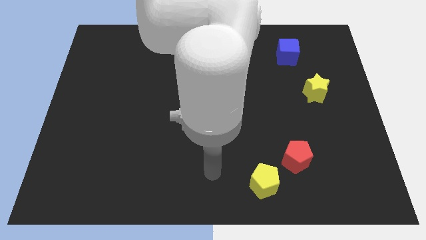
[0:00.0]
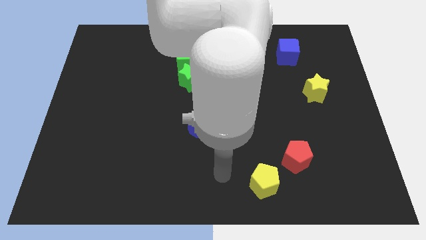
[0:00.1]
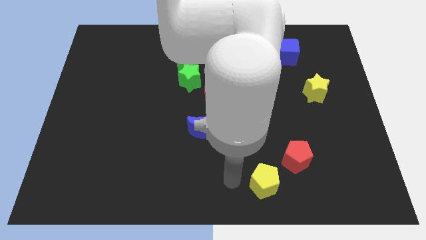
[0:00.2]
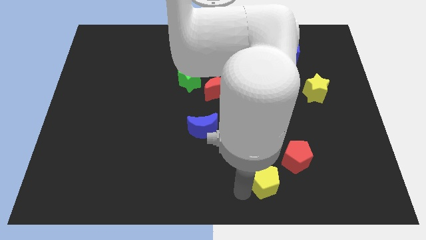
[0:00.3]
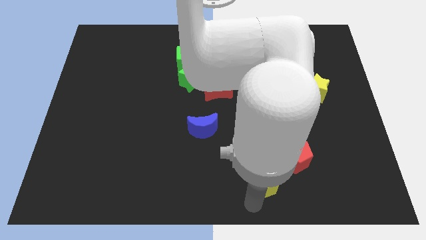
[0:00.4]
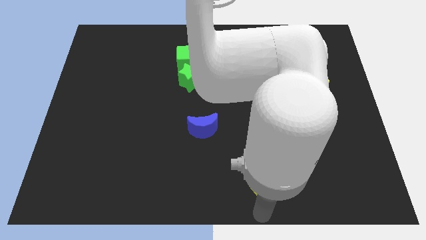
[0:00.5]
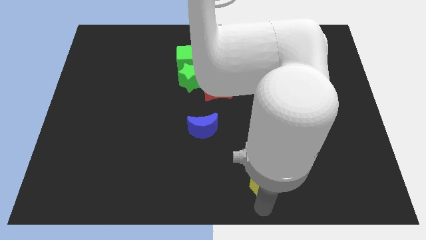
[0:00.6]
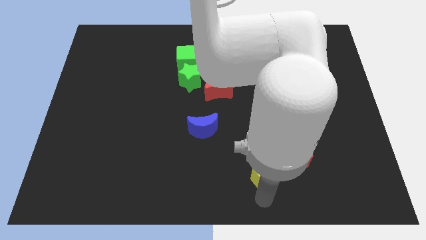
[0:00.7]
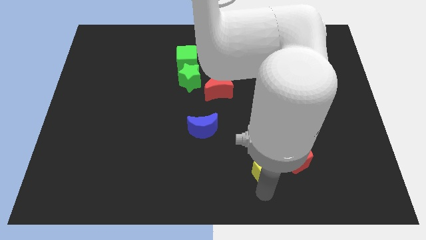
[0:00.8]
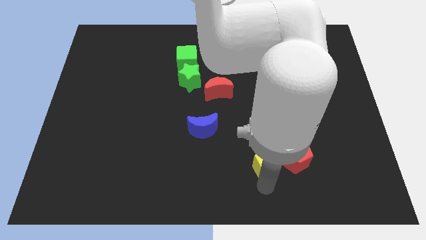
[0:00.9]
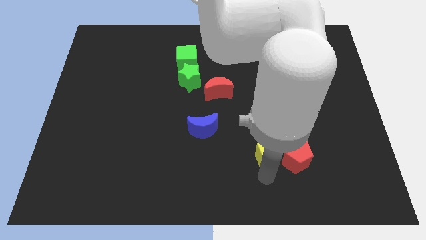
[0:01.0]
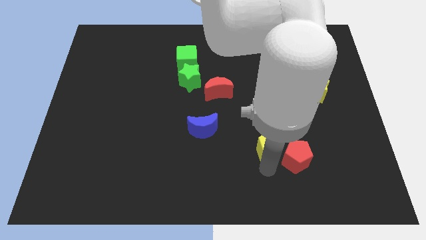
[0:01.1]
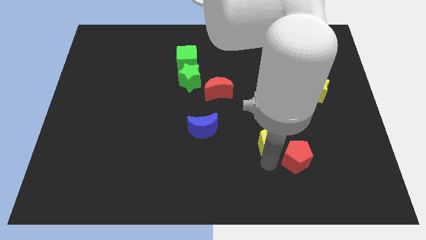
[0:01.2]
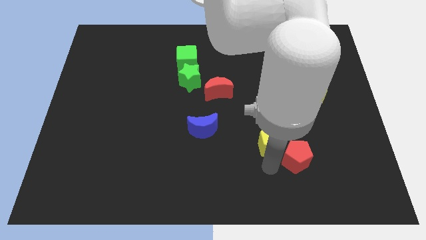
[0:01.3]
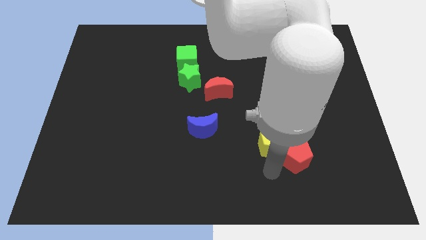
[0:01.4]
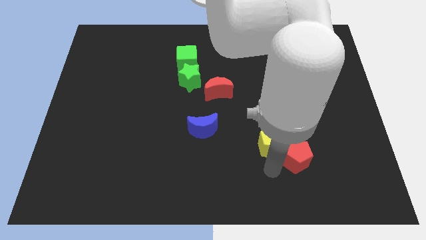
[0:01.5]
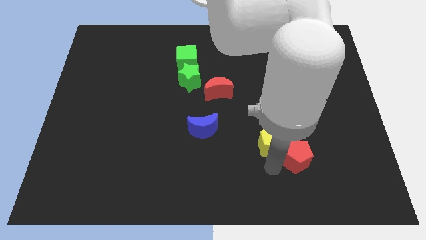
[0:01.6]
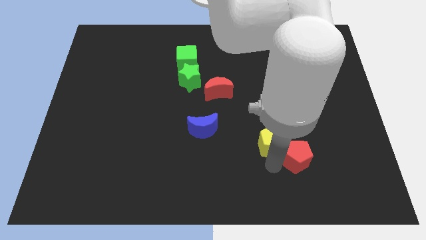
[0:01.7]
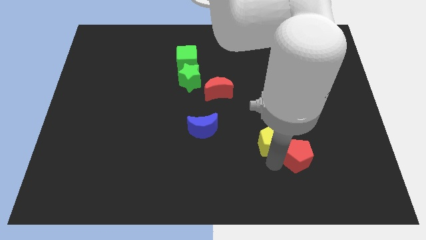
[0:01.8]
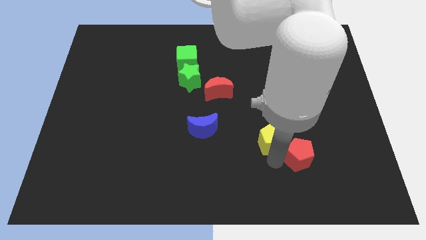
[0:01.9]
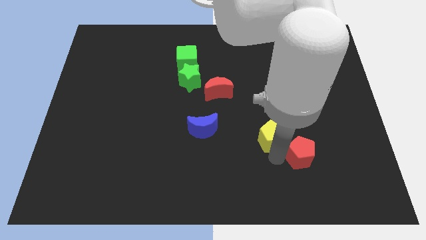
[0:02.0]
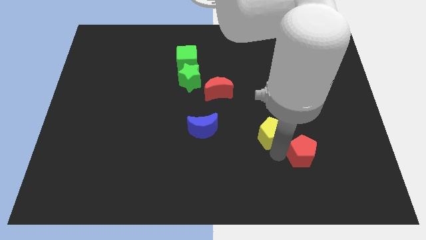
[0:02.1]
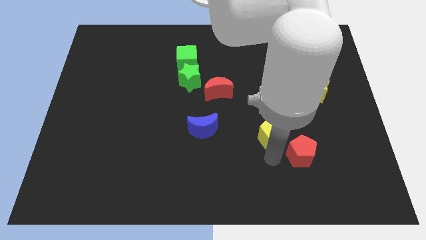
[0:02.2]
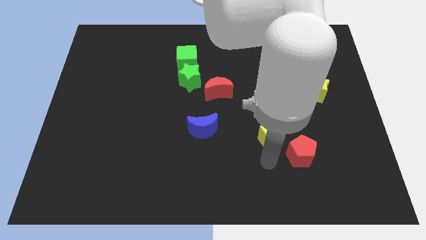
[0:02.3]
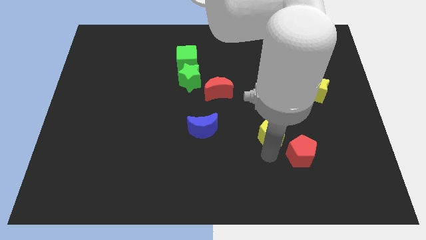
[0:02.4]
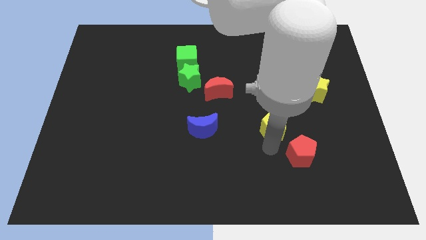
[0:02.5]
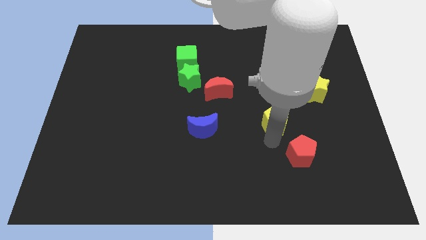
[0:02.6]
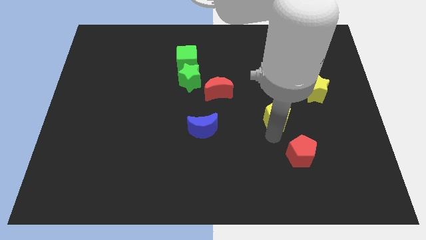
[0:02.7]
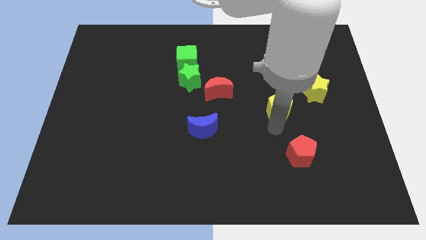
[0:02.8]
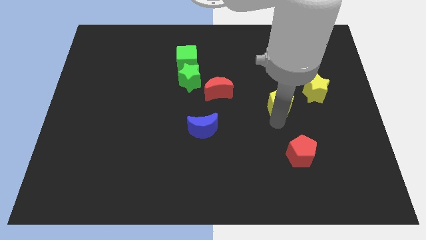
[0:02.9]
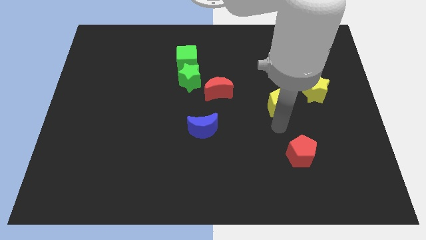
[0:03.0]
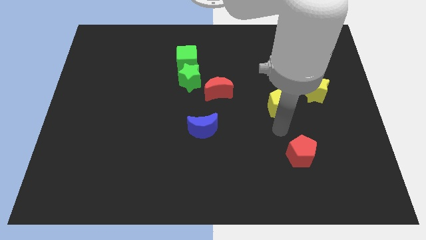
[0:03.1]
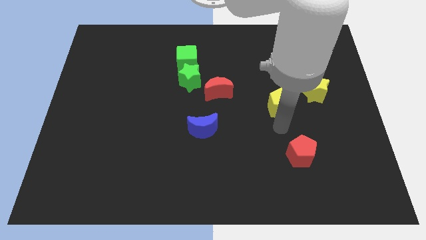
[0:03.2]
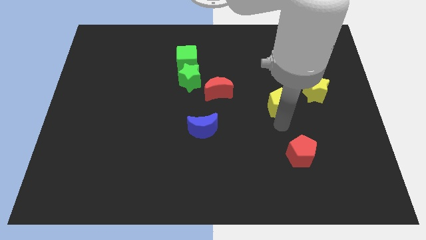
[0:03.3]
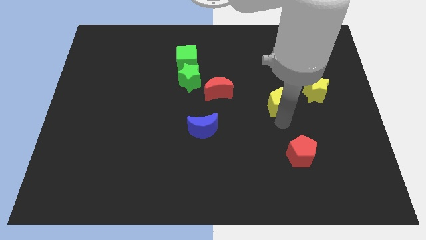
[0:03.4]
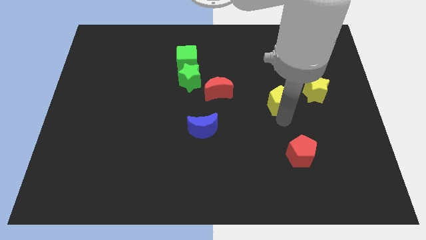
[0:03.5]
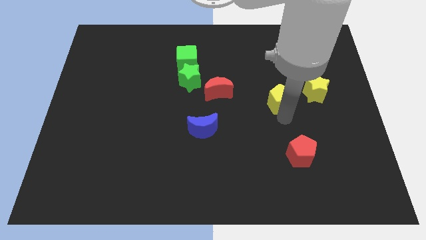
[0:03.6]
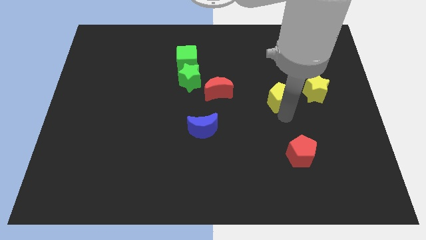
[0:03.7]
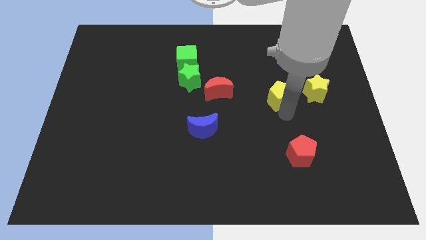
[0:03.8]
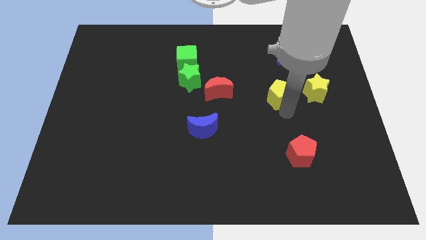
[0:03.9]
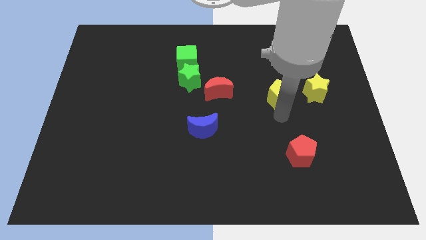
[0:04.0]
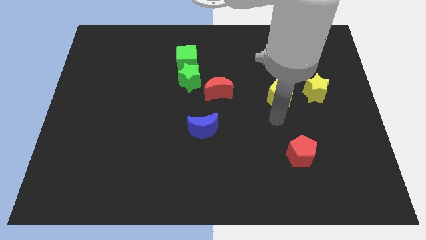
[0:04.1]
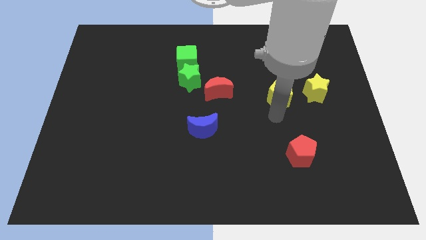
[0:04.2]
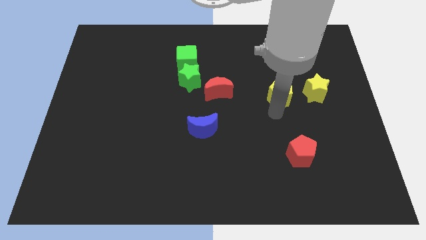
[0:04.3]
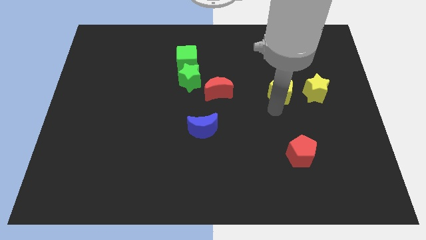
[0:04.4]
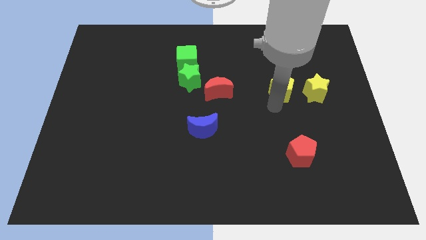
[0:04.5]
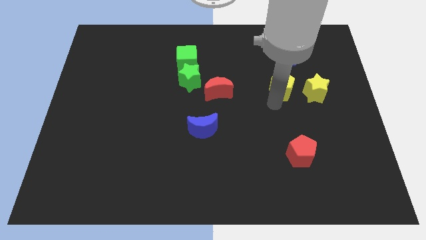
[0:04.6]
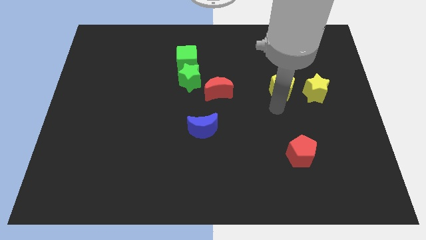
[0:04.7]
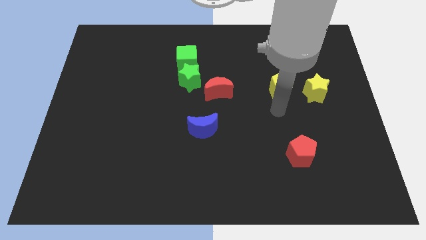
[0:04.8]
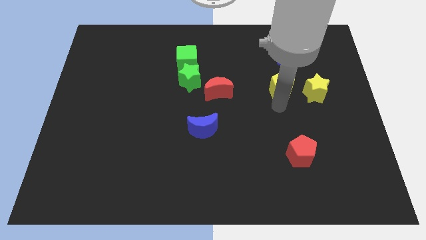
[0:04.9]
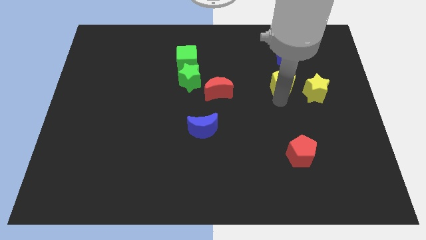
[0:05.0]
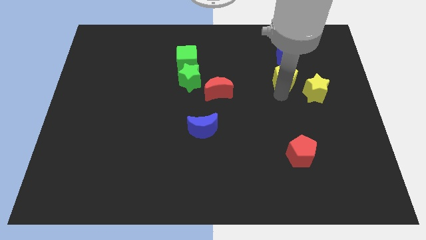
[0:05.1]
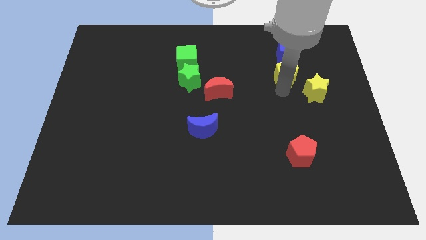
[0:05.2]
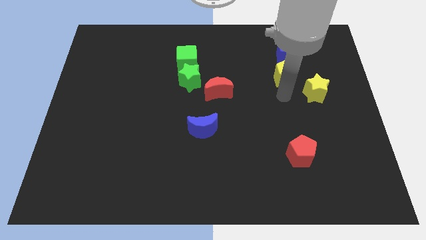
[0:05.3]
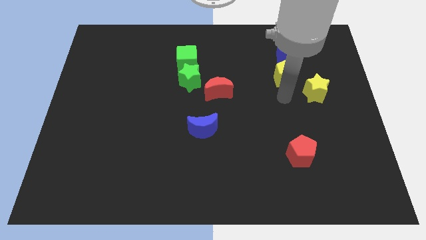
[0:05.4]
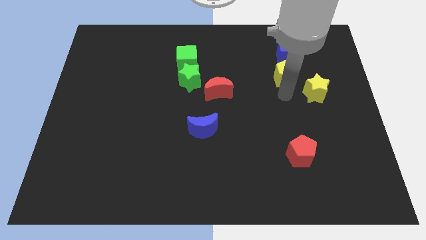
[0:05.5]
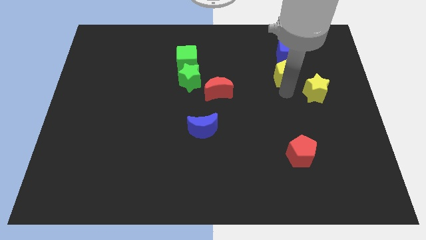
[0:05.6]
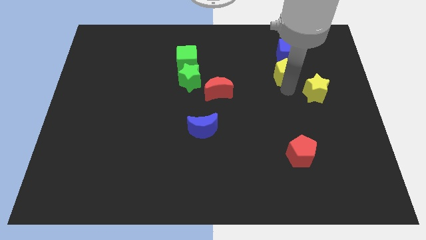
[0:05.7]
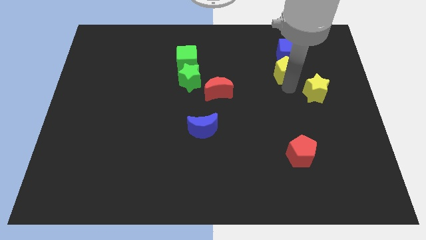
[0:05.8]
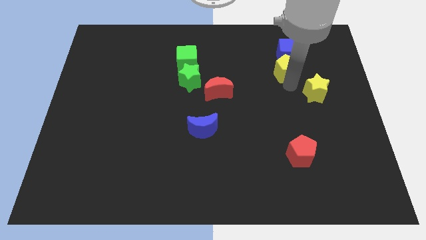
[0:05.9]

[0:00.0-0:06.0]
put the yellow pentagon close to the blue cube
